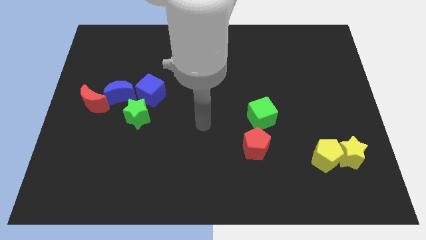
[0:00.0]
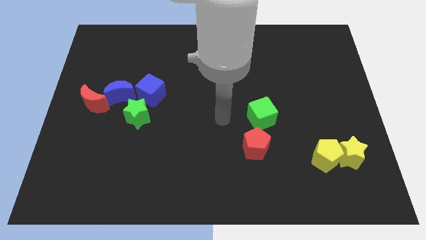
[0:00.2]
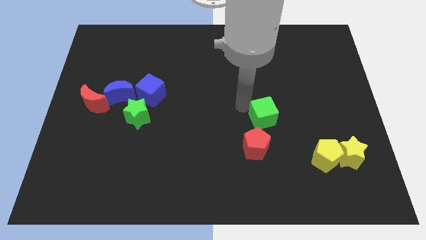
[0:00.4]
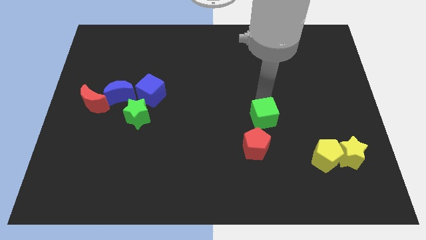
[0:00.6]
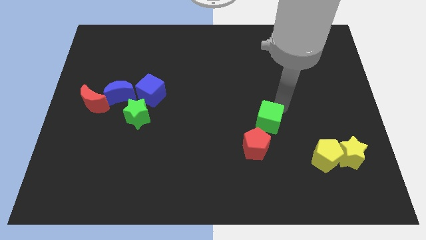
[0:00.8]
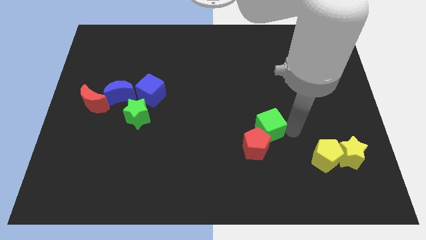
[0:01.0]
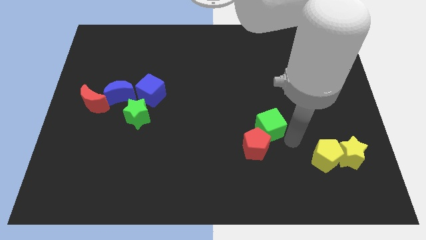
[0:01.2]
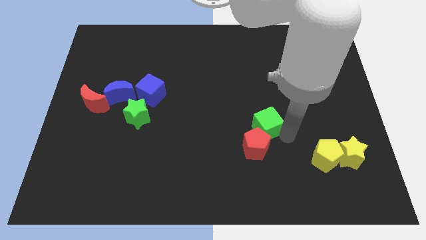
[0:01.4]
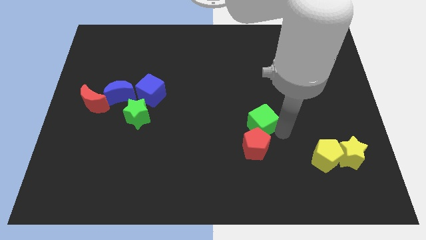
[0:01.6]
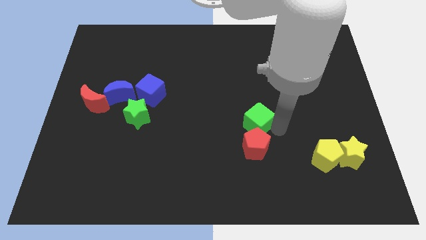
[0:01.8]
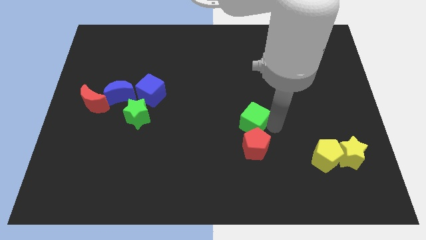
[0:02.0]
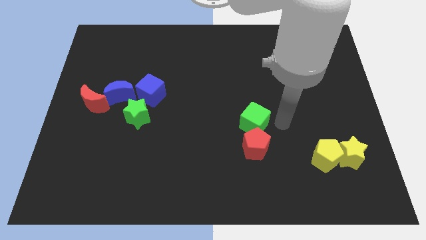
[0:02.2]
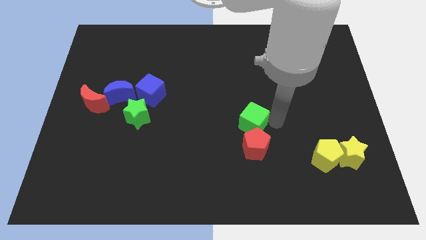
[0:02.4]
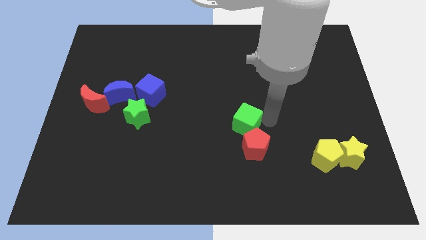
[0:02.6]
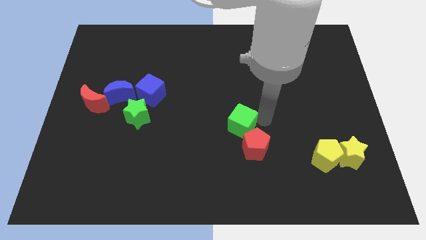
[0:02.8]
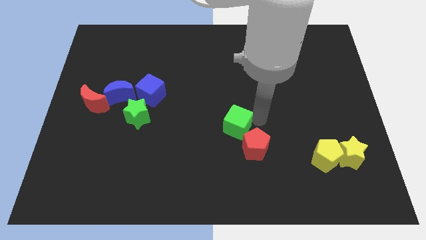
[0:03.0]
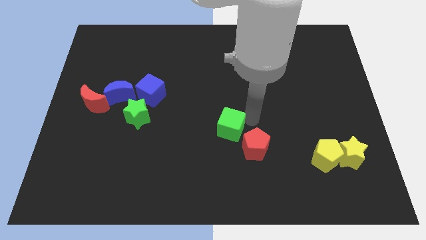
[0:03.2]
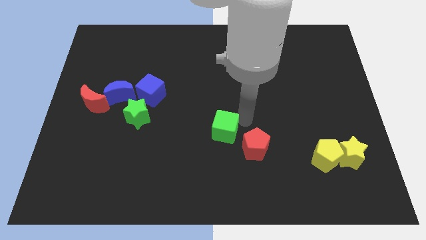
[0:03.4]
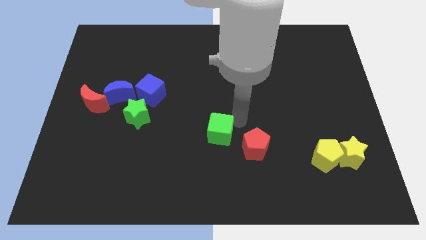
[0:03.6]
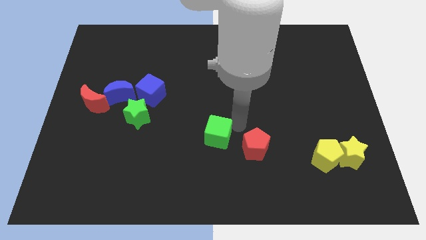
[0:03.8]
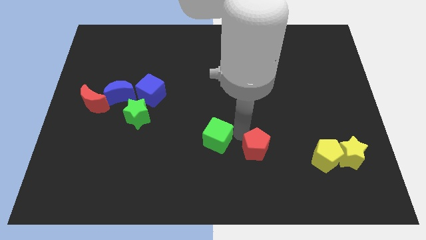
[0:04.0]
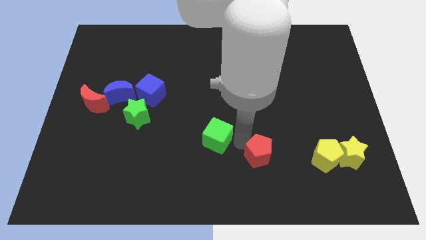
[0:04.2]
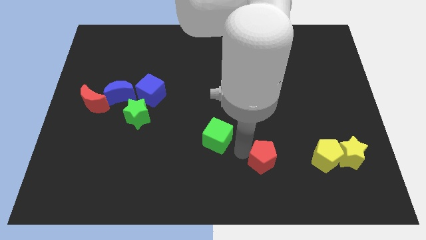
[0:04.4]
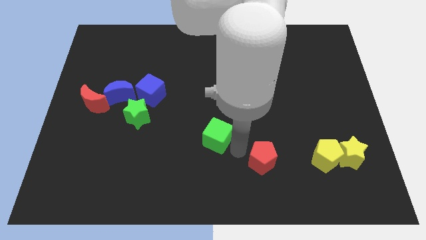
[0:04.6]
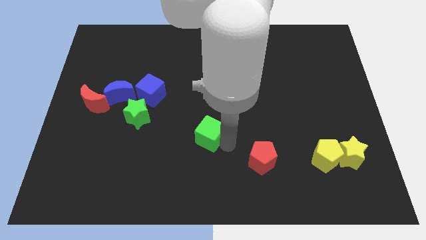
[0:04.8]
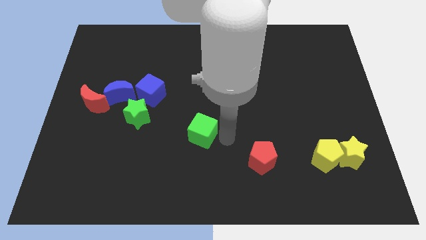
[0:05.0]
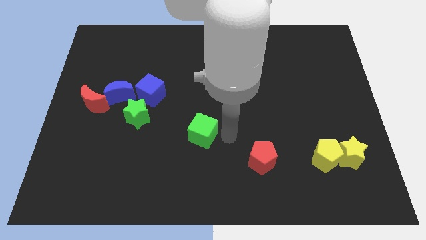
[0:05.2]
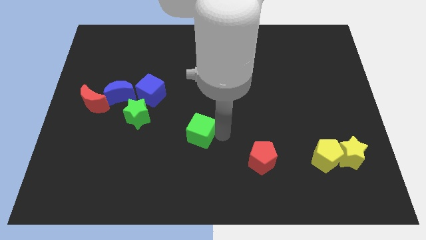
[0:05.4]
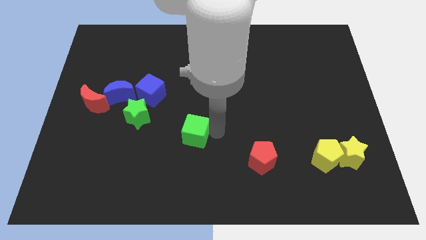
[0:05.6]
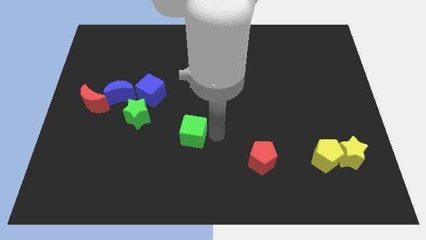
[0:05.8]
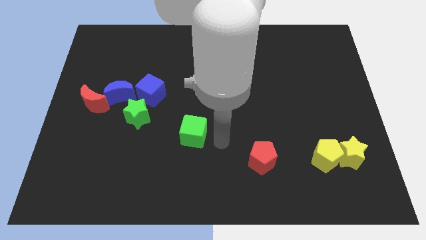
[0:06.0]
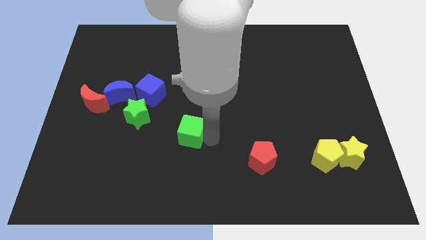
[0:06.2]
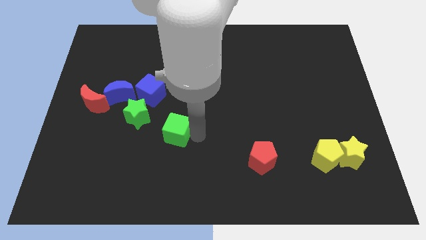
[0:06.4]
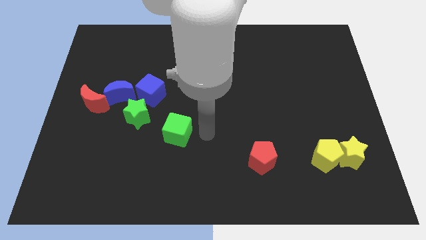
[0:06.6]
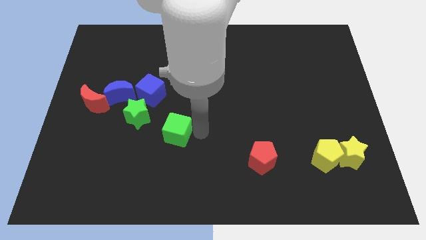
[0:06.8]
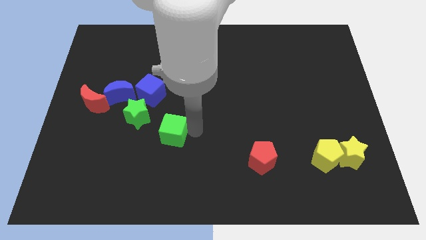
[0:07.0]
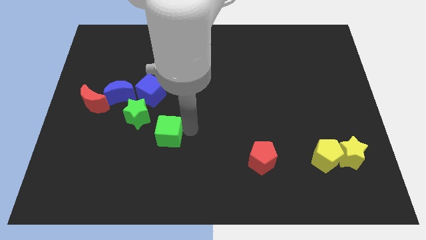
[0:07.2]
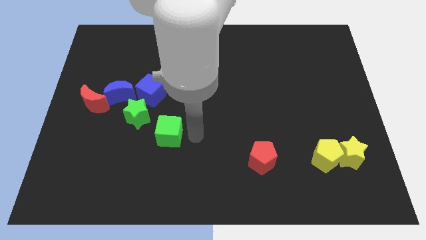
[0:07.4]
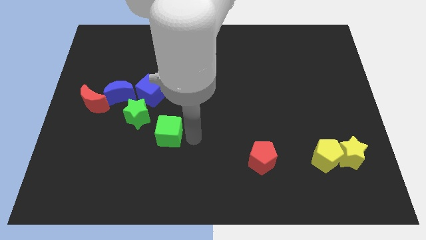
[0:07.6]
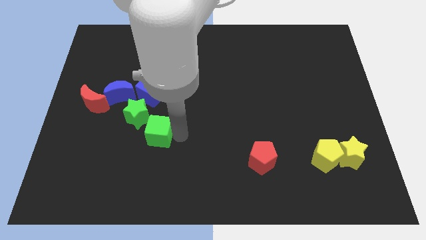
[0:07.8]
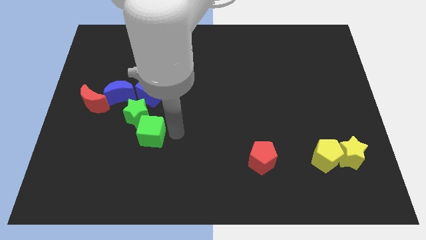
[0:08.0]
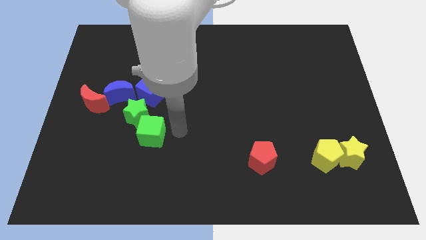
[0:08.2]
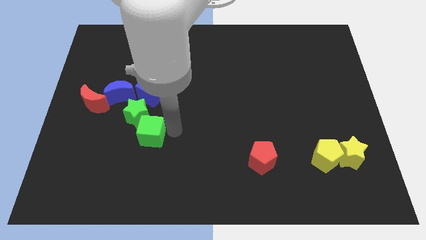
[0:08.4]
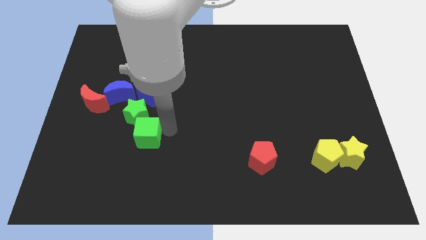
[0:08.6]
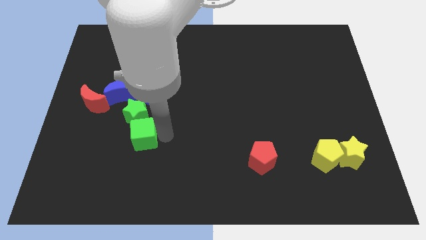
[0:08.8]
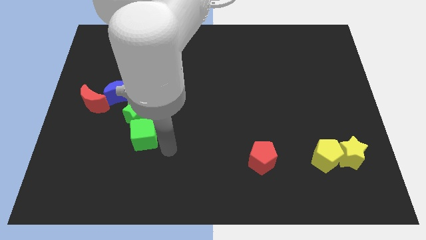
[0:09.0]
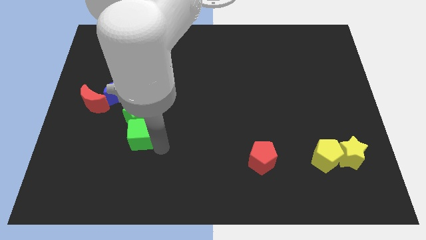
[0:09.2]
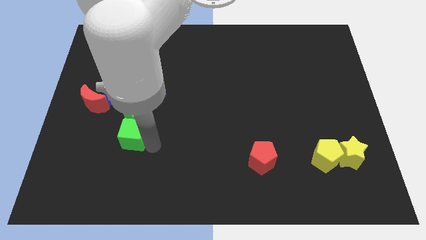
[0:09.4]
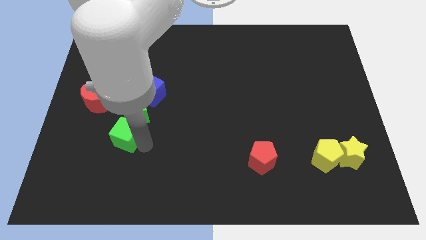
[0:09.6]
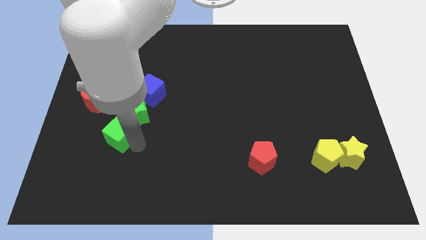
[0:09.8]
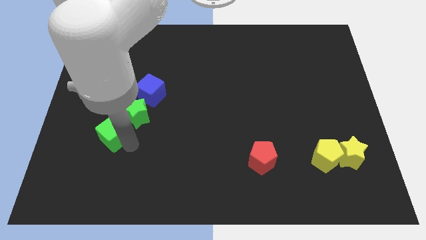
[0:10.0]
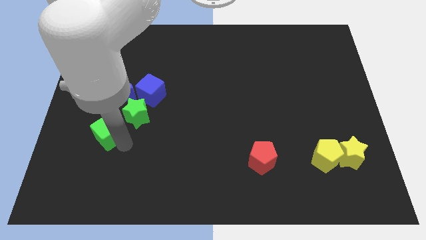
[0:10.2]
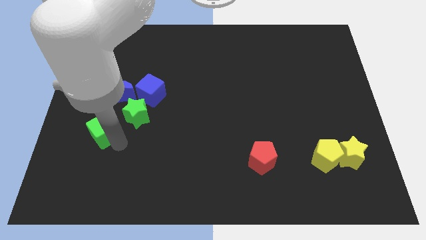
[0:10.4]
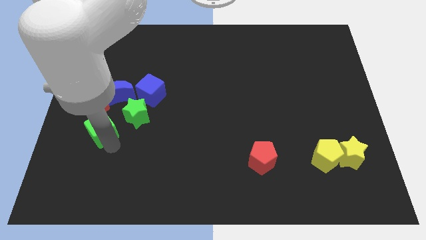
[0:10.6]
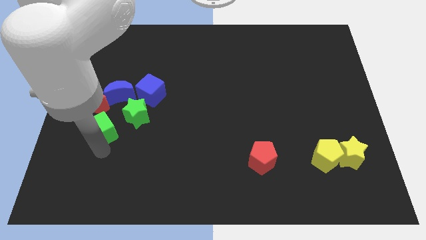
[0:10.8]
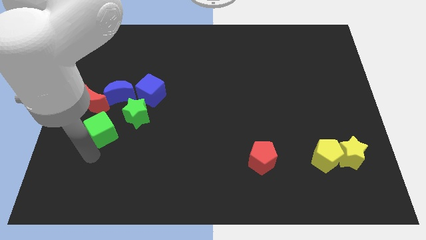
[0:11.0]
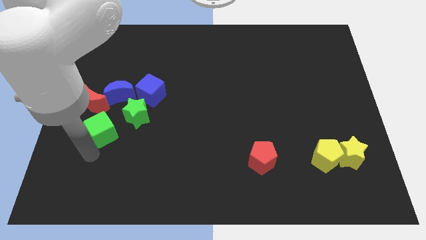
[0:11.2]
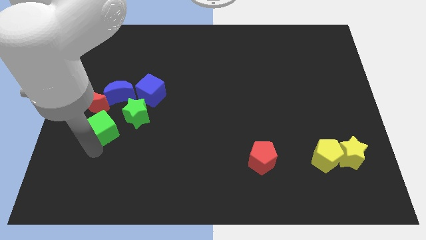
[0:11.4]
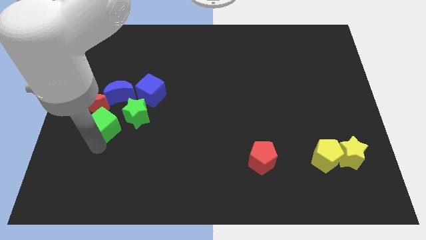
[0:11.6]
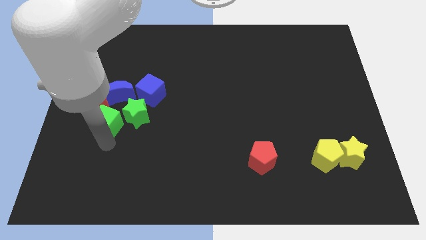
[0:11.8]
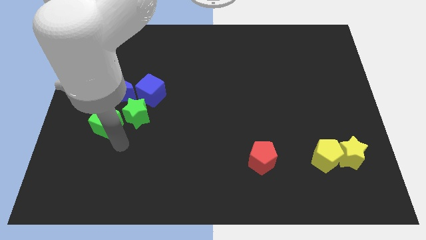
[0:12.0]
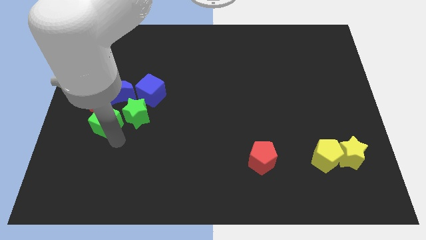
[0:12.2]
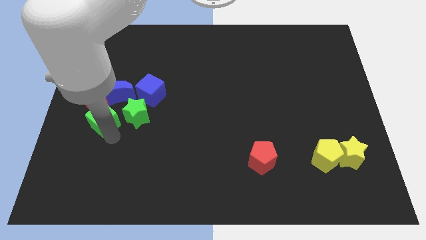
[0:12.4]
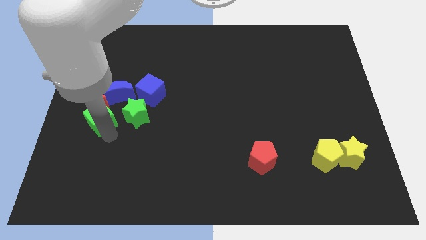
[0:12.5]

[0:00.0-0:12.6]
slide the green cube to the red moon

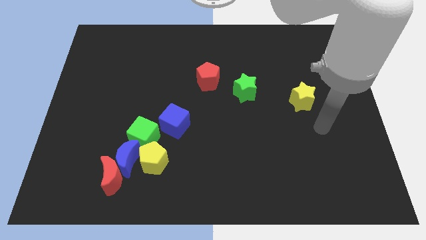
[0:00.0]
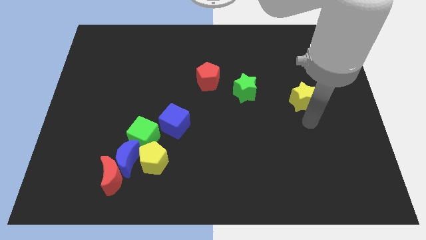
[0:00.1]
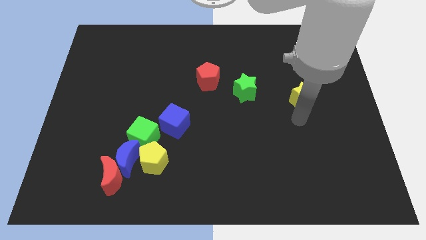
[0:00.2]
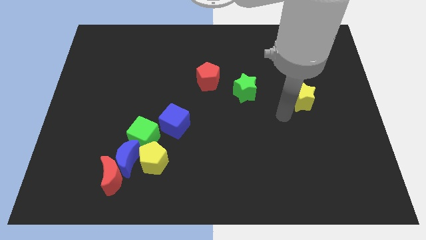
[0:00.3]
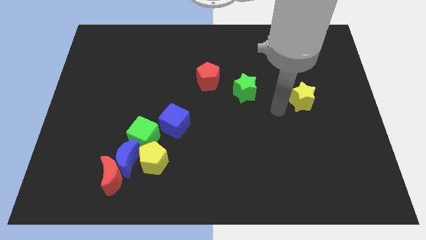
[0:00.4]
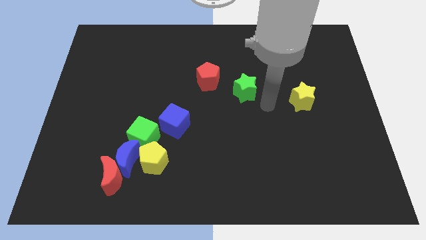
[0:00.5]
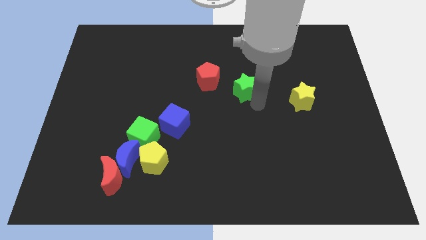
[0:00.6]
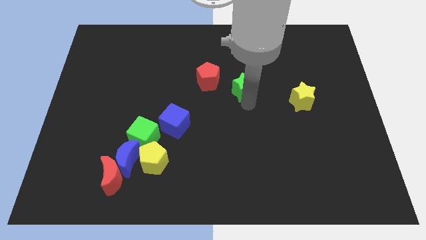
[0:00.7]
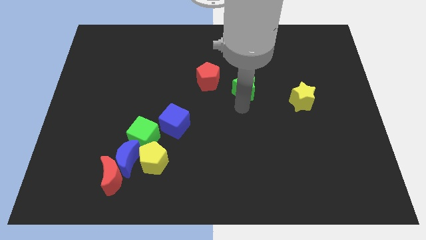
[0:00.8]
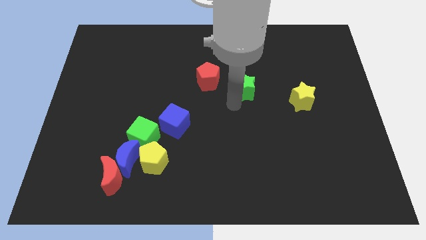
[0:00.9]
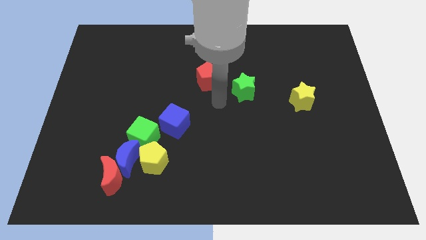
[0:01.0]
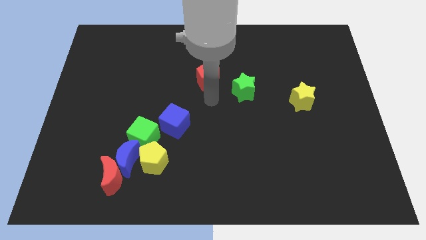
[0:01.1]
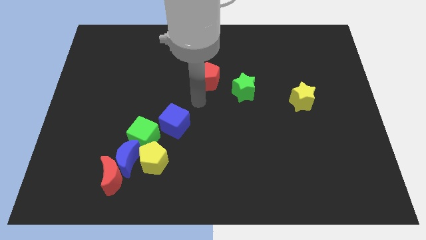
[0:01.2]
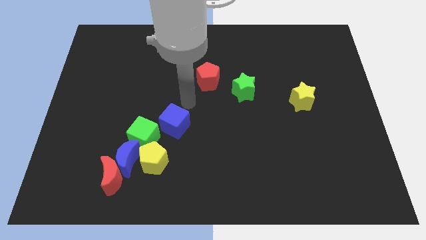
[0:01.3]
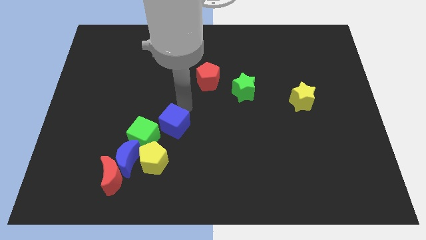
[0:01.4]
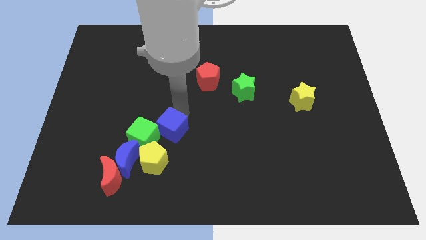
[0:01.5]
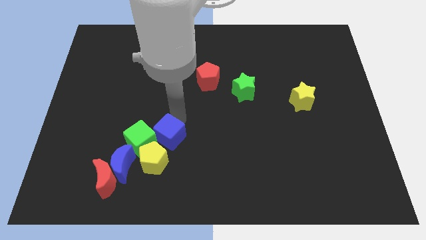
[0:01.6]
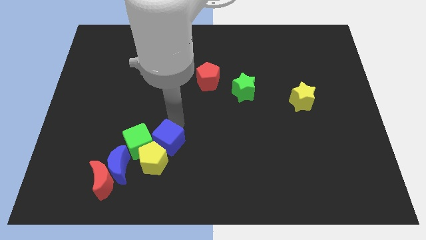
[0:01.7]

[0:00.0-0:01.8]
put the blue cube next to the yellow pentagon
